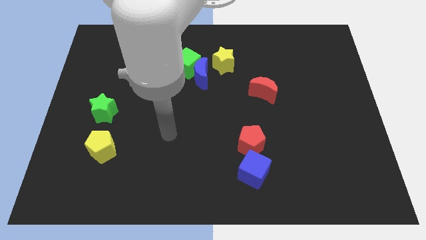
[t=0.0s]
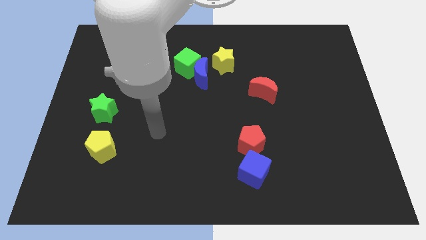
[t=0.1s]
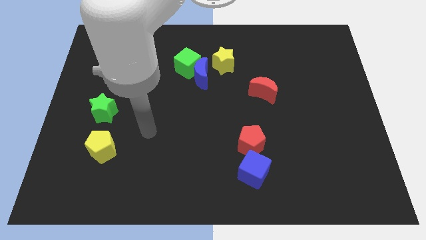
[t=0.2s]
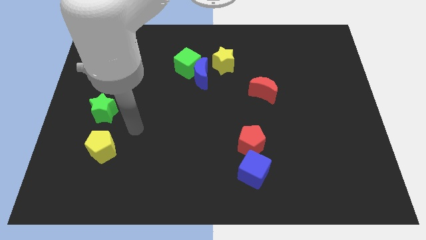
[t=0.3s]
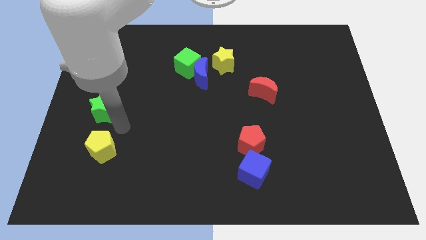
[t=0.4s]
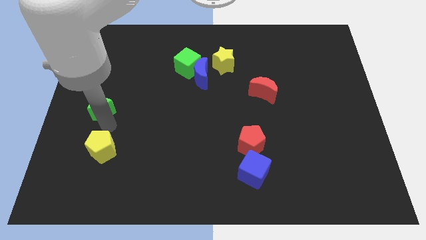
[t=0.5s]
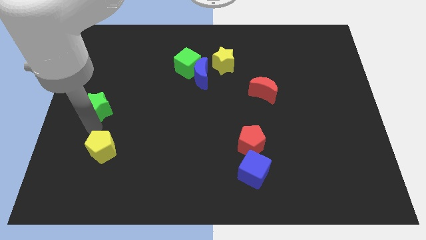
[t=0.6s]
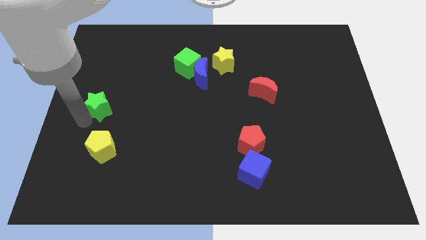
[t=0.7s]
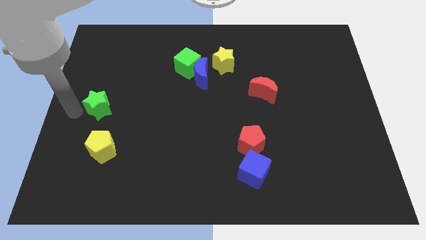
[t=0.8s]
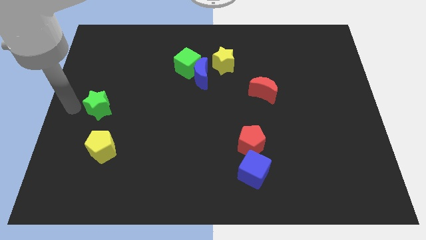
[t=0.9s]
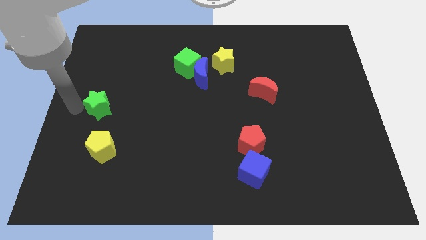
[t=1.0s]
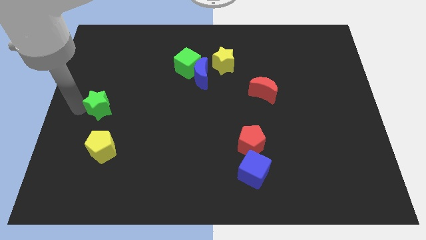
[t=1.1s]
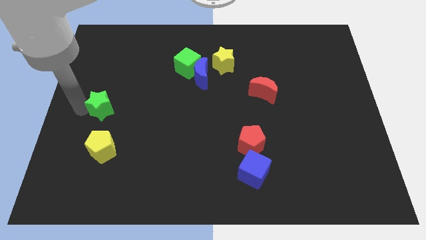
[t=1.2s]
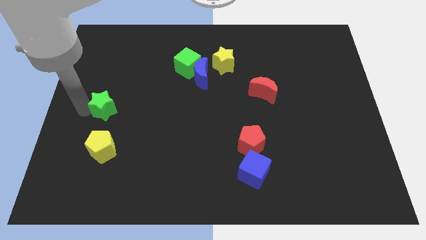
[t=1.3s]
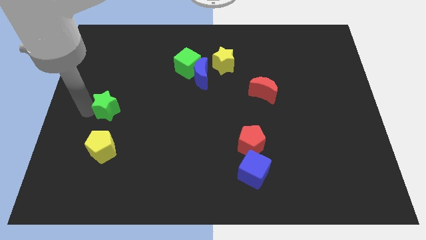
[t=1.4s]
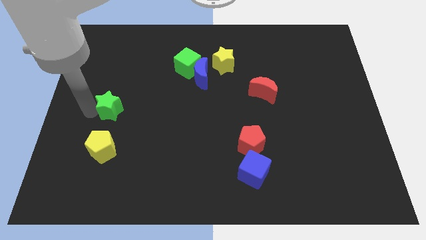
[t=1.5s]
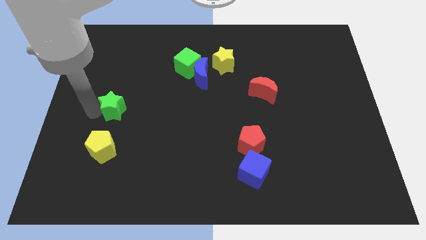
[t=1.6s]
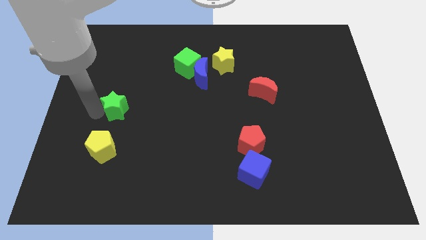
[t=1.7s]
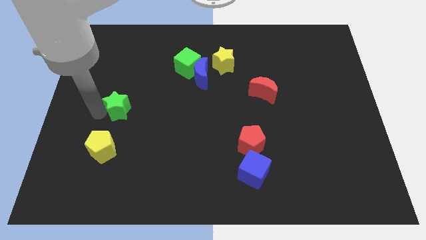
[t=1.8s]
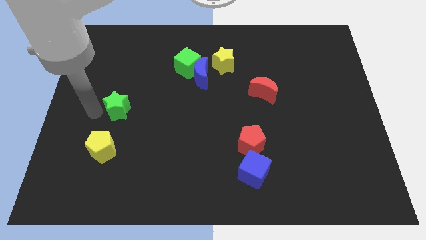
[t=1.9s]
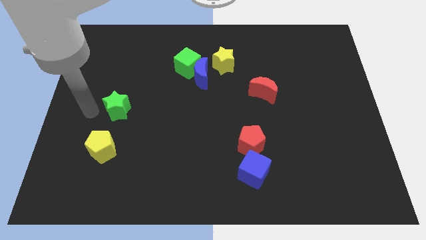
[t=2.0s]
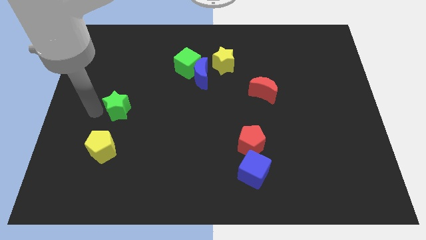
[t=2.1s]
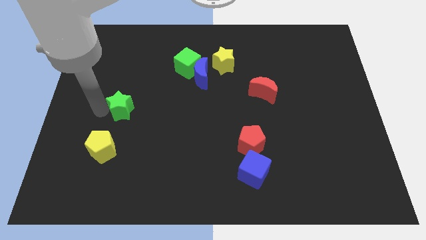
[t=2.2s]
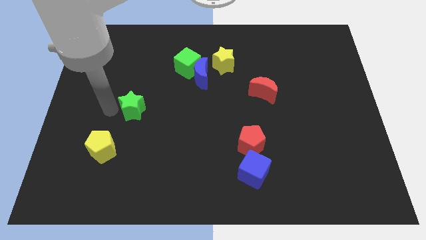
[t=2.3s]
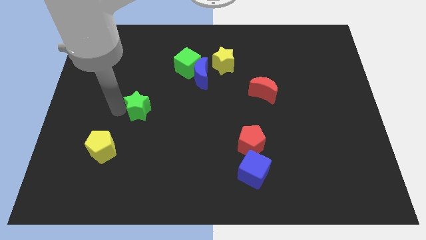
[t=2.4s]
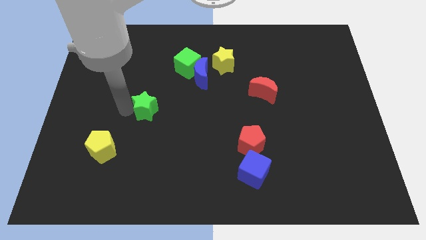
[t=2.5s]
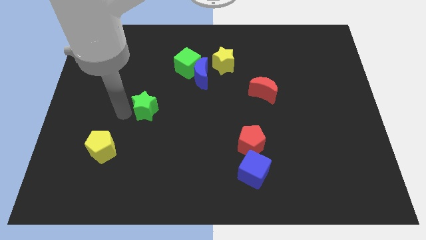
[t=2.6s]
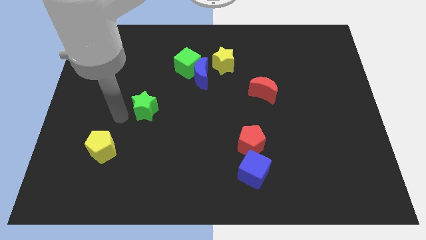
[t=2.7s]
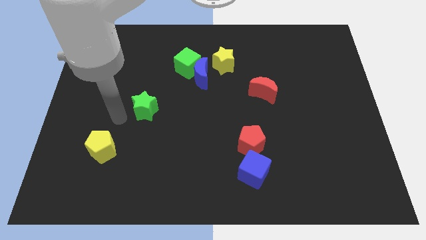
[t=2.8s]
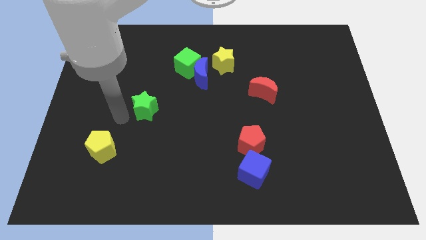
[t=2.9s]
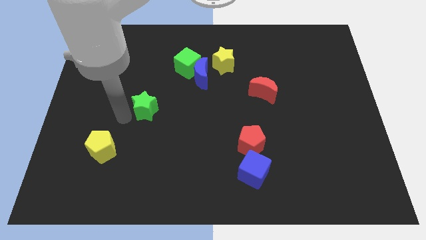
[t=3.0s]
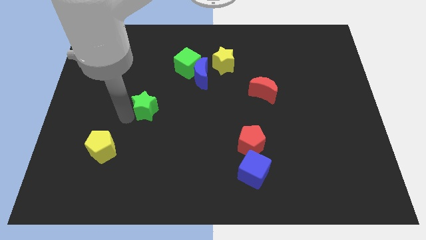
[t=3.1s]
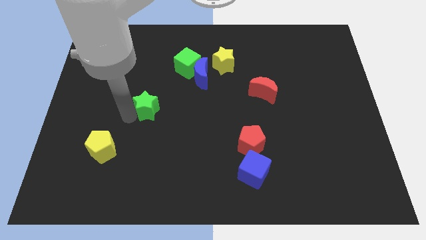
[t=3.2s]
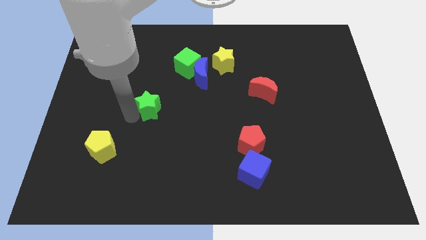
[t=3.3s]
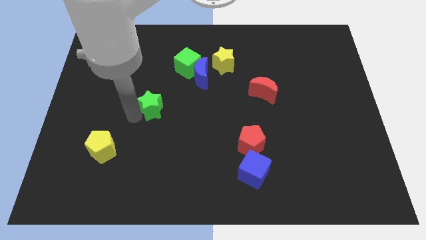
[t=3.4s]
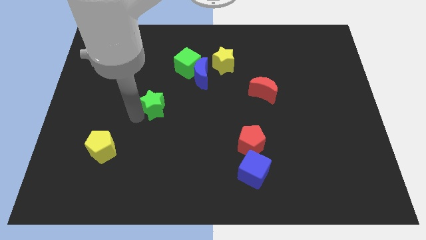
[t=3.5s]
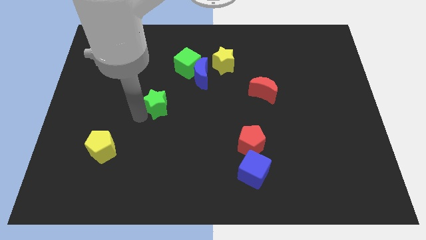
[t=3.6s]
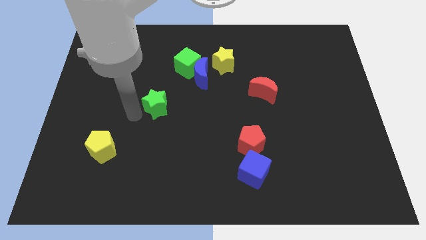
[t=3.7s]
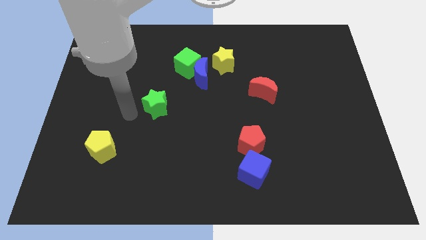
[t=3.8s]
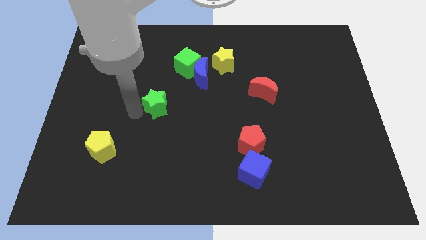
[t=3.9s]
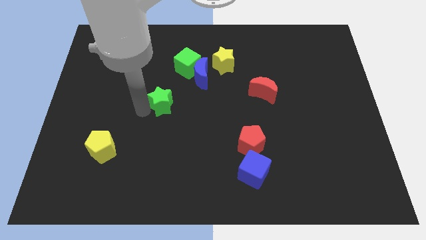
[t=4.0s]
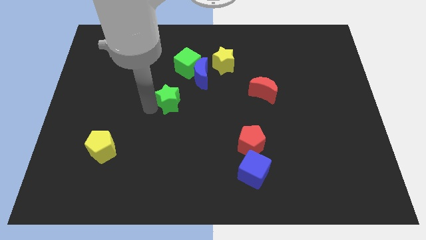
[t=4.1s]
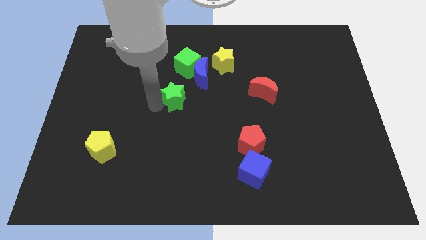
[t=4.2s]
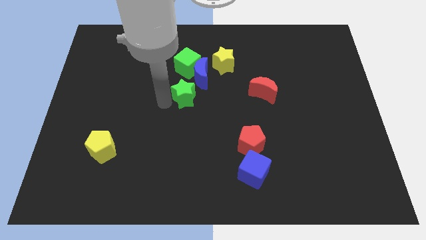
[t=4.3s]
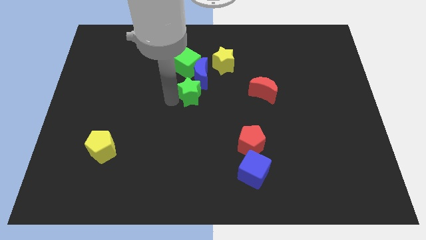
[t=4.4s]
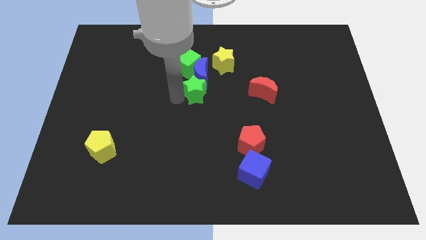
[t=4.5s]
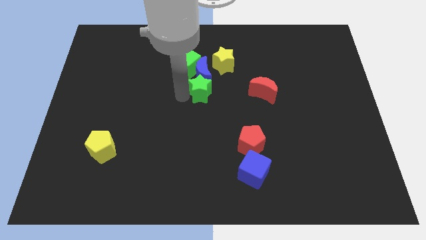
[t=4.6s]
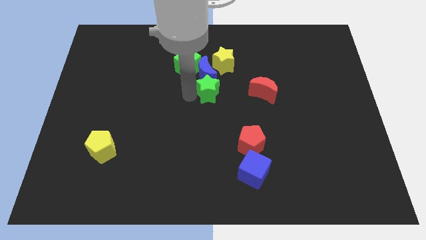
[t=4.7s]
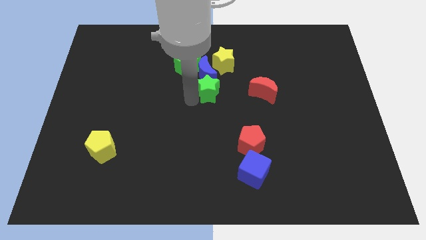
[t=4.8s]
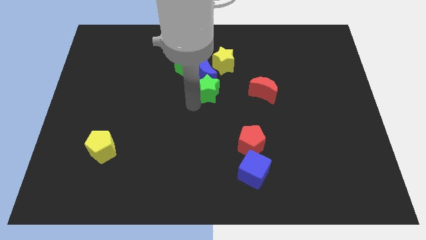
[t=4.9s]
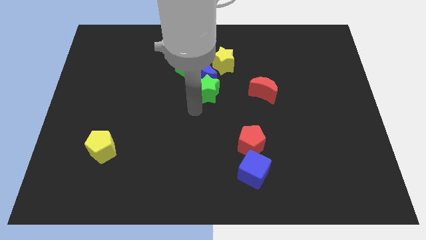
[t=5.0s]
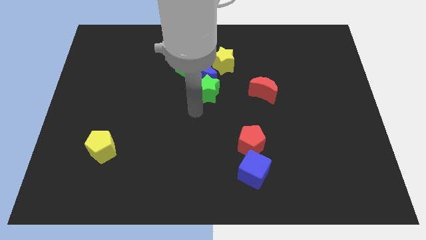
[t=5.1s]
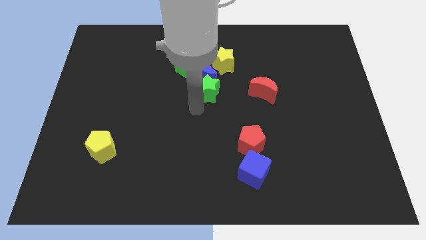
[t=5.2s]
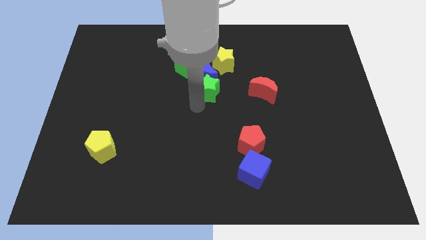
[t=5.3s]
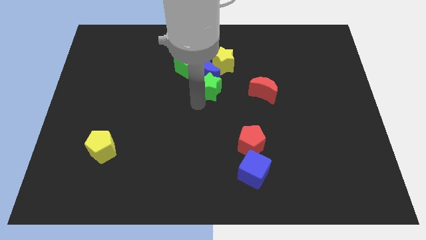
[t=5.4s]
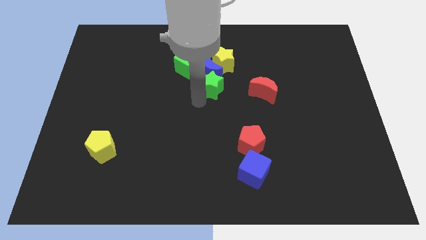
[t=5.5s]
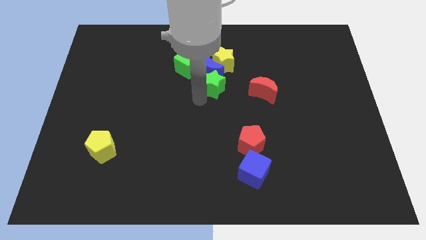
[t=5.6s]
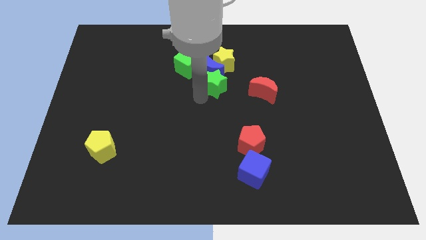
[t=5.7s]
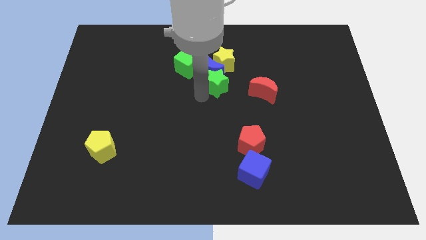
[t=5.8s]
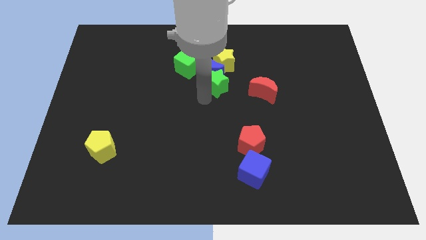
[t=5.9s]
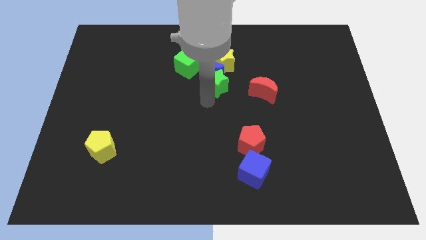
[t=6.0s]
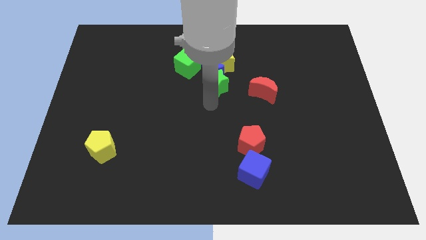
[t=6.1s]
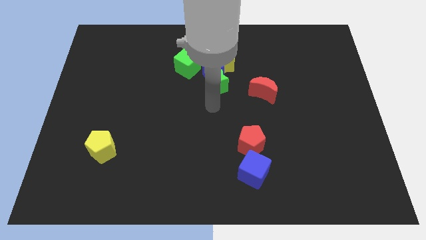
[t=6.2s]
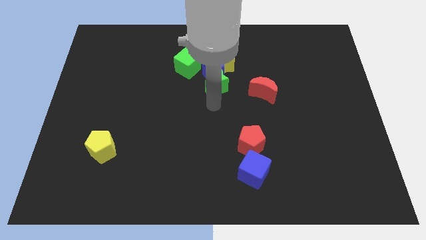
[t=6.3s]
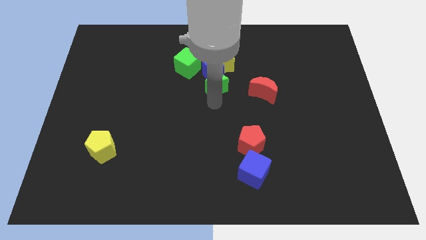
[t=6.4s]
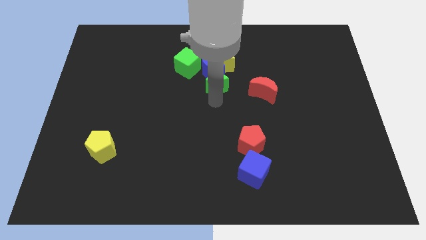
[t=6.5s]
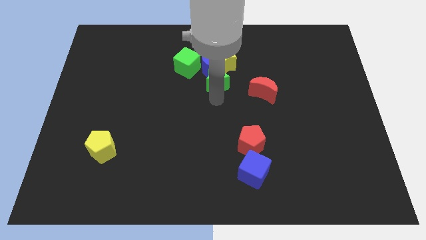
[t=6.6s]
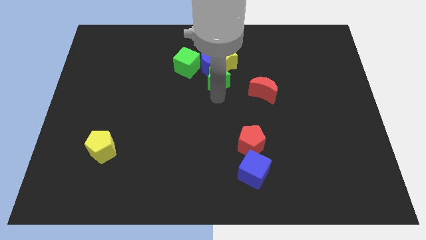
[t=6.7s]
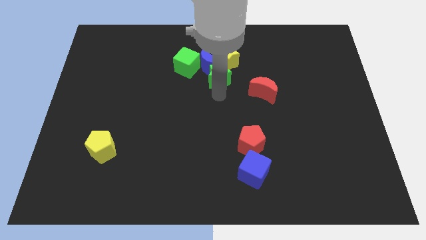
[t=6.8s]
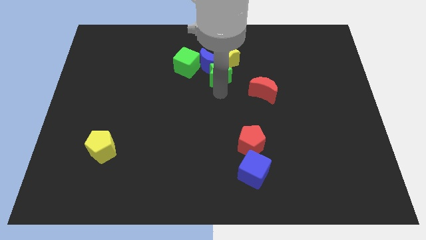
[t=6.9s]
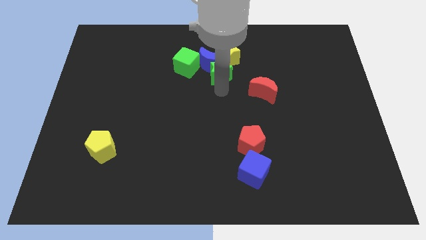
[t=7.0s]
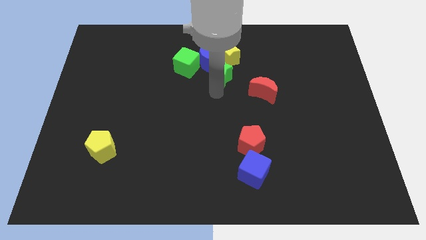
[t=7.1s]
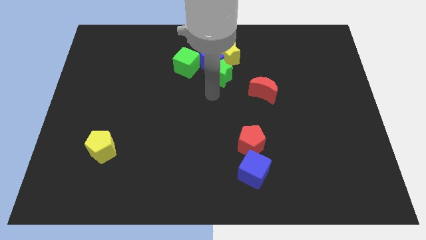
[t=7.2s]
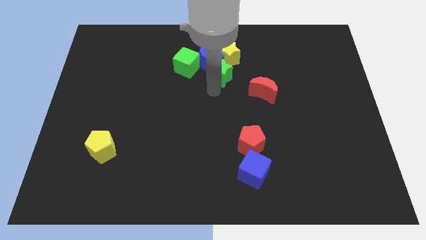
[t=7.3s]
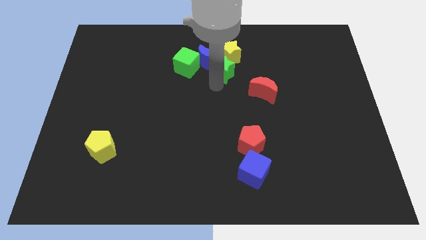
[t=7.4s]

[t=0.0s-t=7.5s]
slide the green star towards the yellow star
